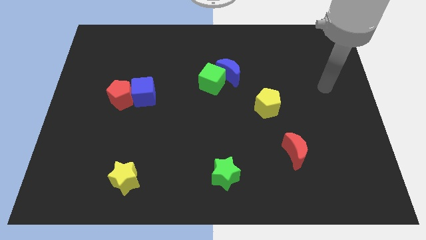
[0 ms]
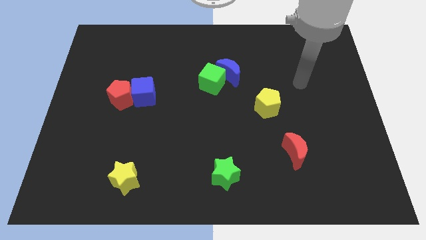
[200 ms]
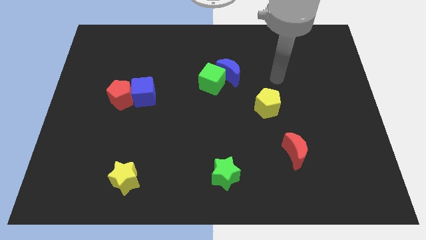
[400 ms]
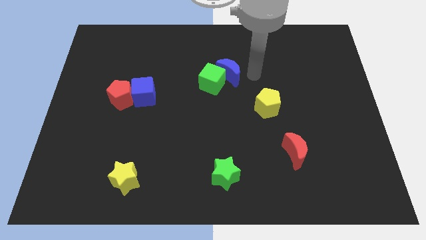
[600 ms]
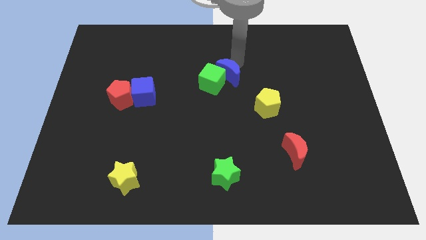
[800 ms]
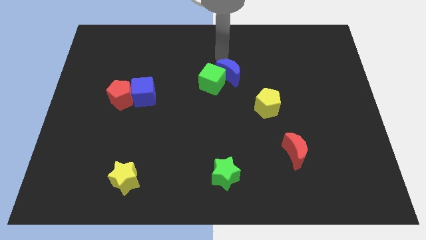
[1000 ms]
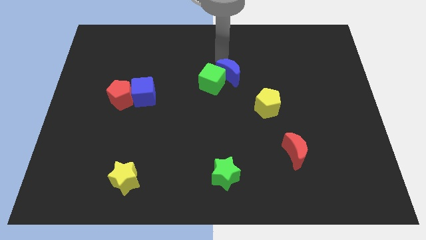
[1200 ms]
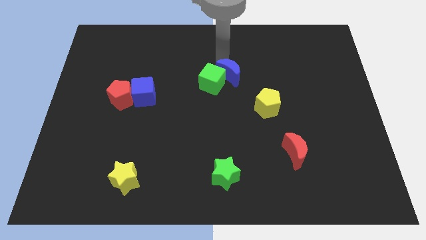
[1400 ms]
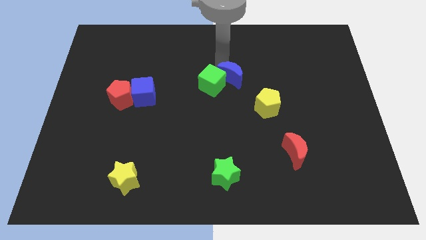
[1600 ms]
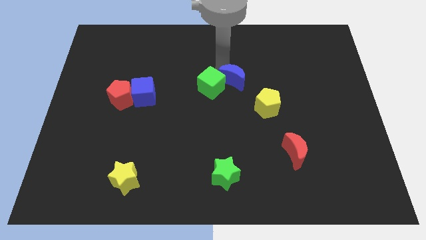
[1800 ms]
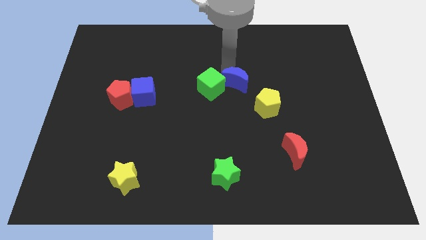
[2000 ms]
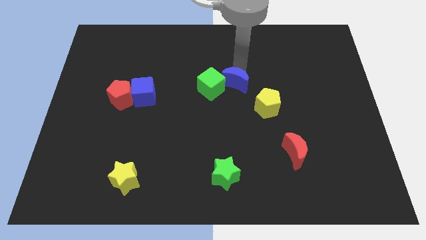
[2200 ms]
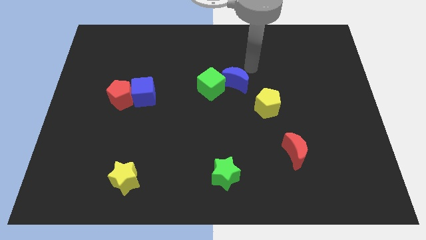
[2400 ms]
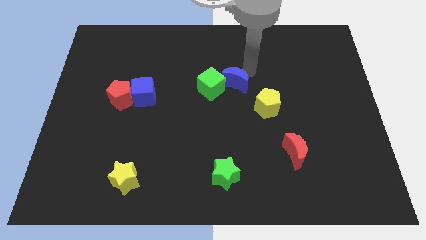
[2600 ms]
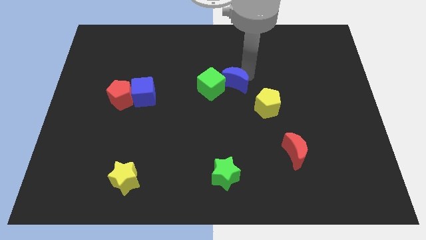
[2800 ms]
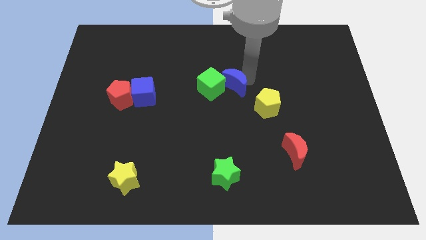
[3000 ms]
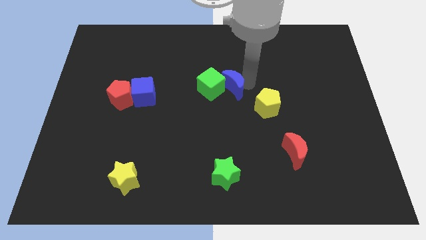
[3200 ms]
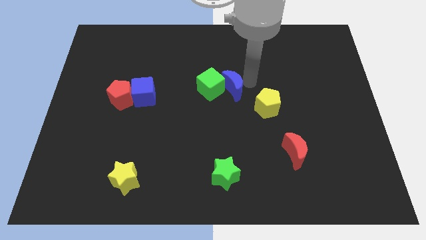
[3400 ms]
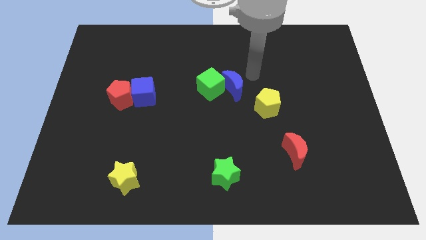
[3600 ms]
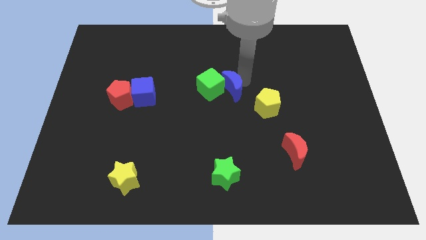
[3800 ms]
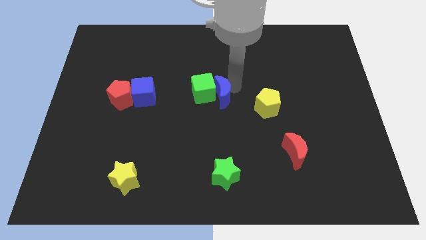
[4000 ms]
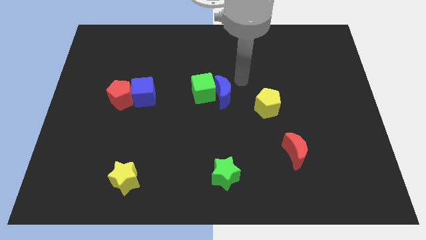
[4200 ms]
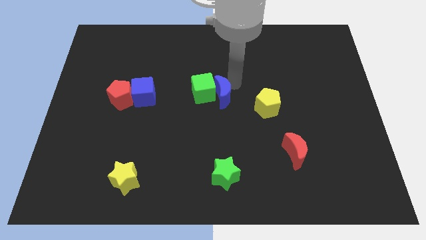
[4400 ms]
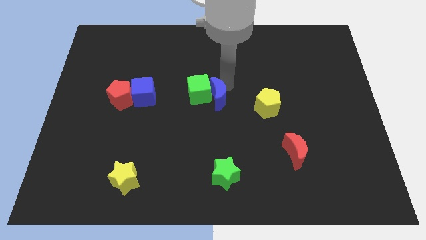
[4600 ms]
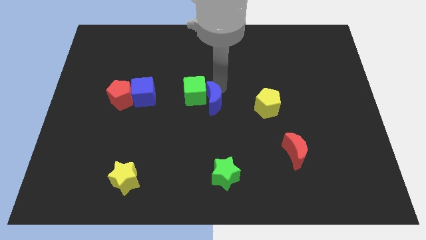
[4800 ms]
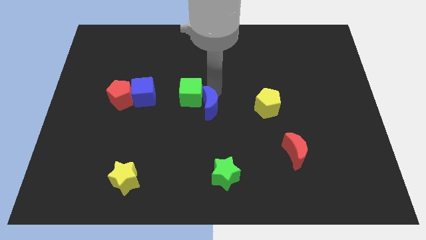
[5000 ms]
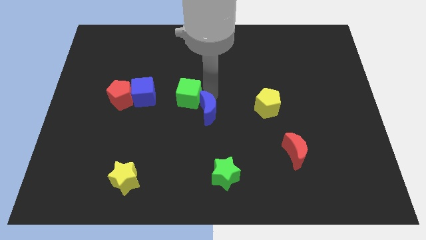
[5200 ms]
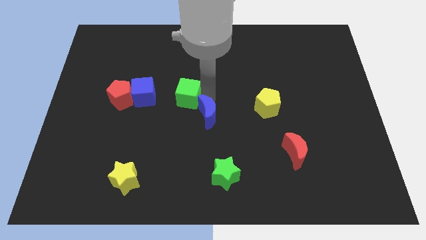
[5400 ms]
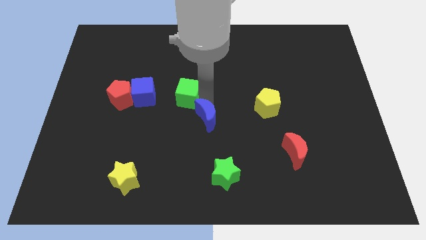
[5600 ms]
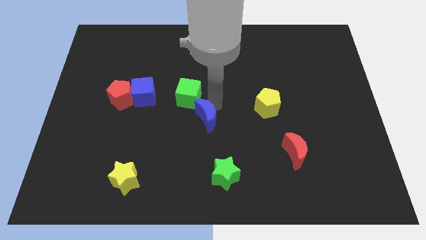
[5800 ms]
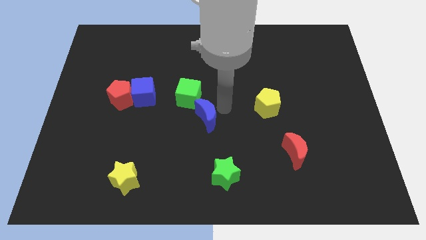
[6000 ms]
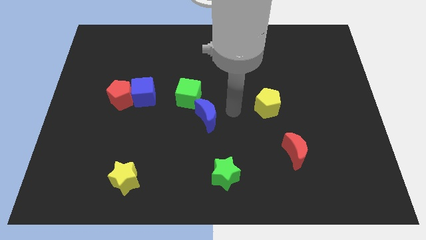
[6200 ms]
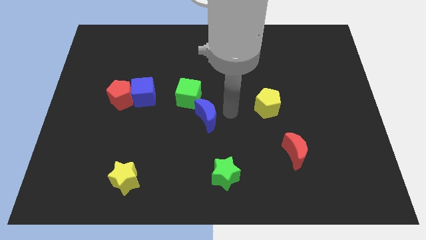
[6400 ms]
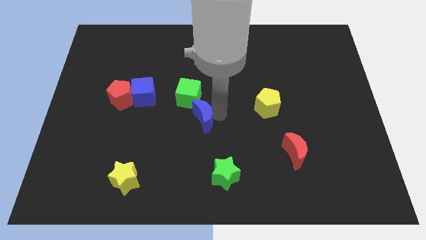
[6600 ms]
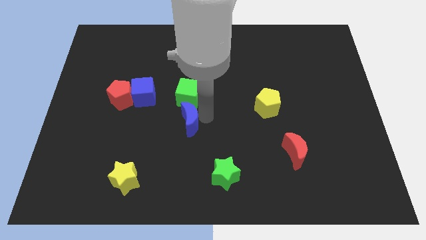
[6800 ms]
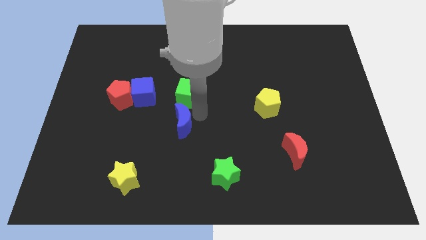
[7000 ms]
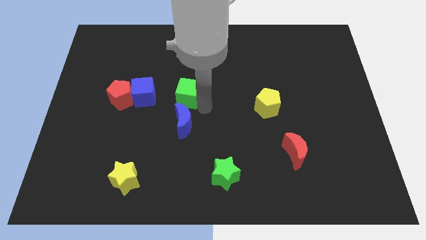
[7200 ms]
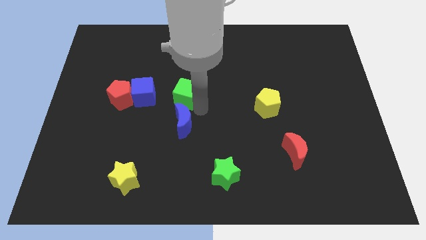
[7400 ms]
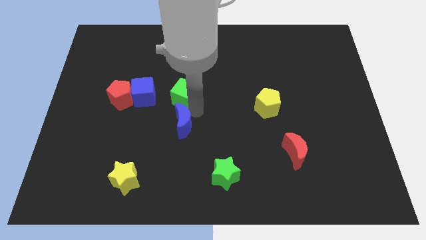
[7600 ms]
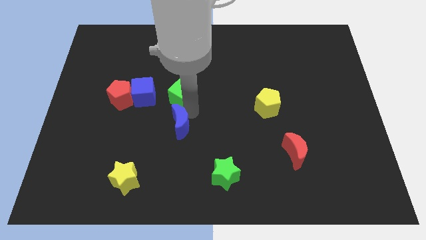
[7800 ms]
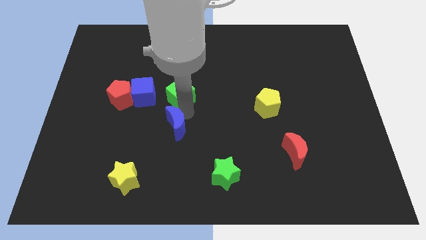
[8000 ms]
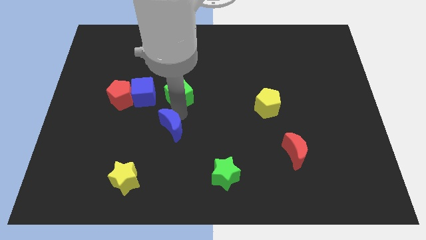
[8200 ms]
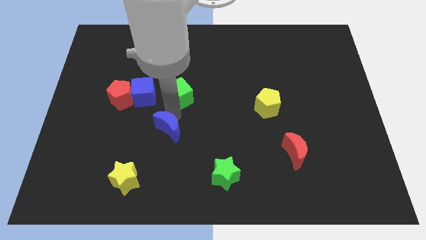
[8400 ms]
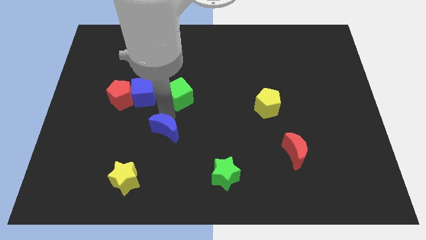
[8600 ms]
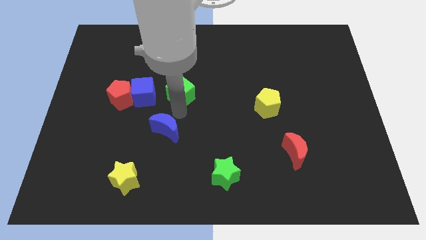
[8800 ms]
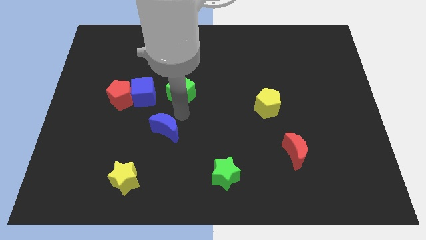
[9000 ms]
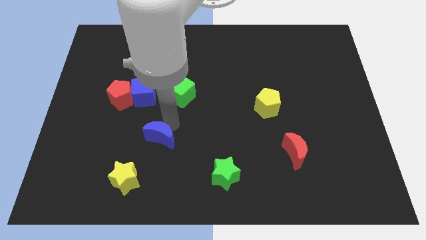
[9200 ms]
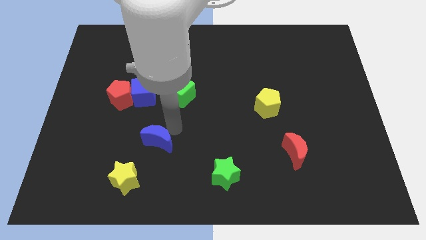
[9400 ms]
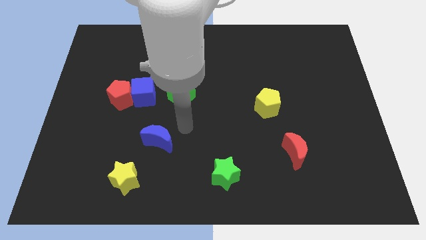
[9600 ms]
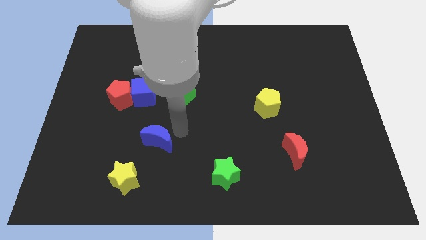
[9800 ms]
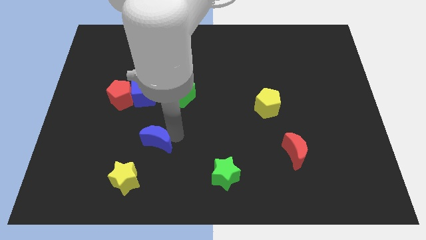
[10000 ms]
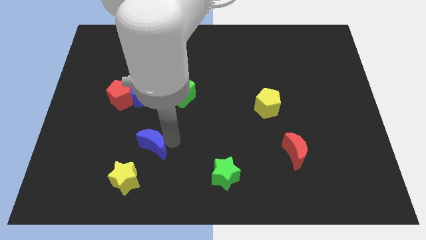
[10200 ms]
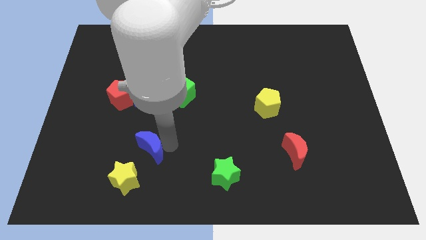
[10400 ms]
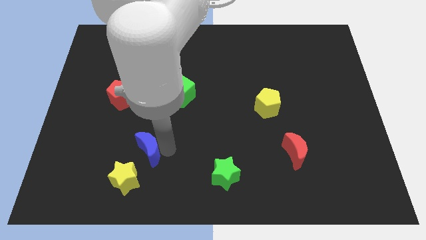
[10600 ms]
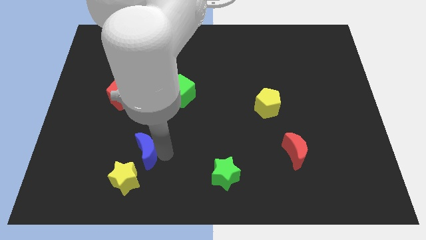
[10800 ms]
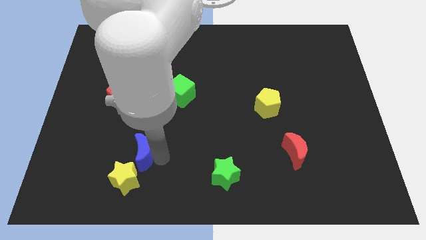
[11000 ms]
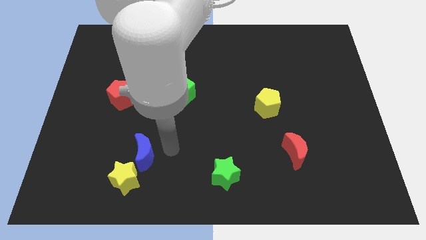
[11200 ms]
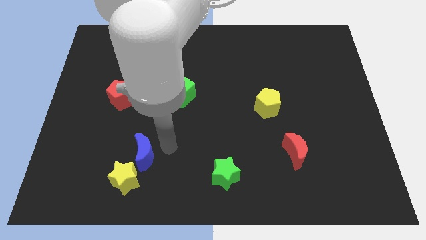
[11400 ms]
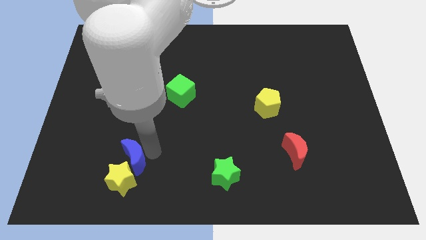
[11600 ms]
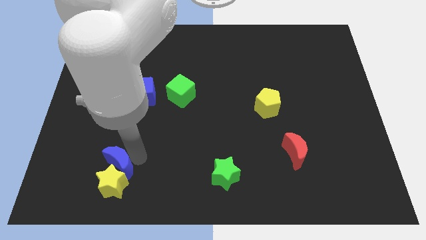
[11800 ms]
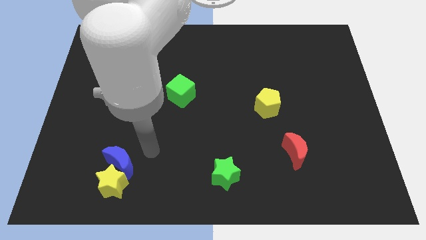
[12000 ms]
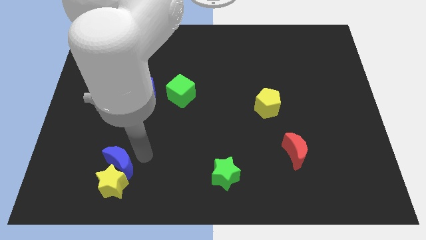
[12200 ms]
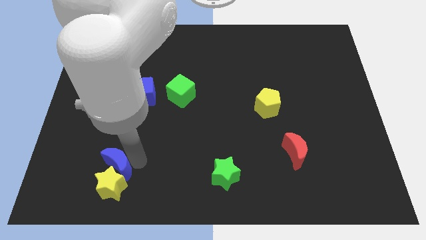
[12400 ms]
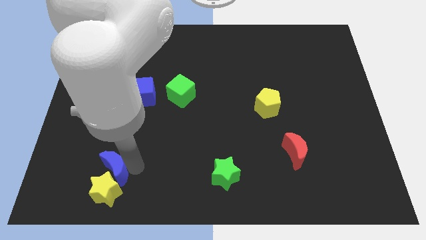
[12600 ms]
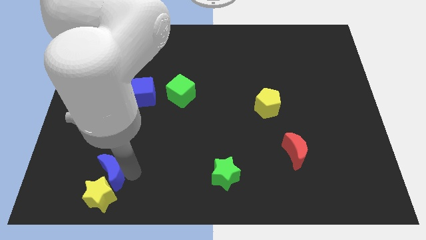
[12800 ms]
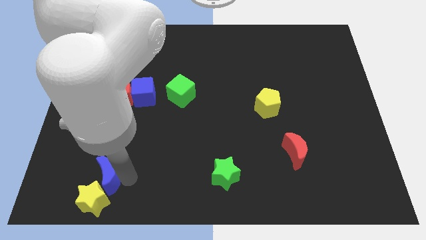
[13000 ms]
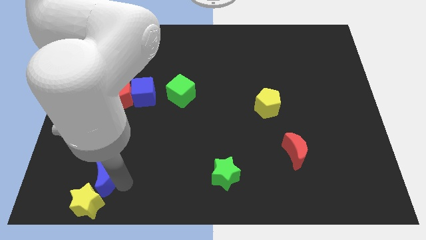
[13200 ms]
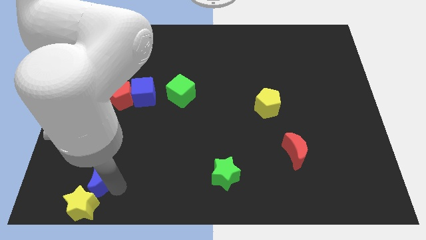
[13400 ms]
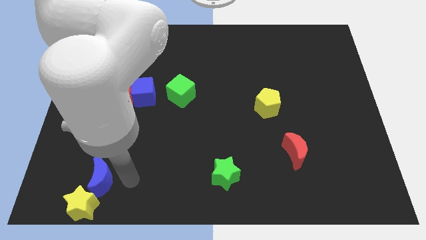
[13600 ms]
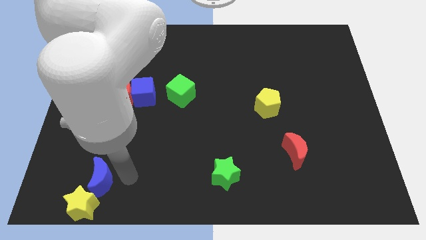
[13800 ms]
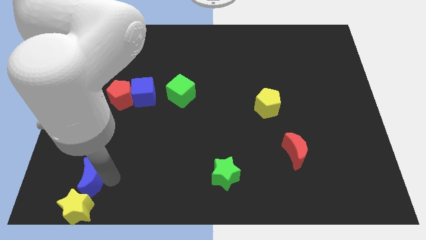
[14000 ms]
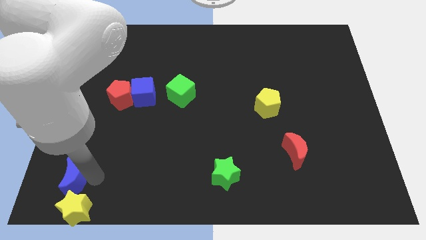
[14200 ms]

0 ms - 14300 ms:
slide the blue moon to the bottom left corner

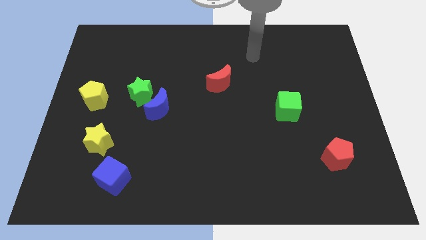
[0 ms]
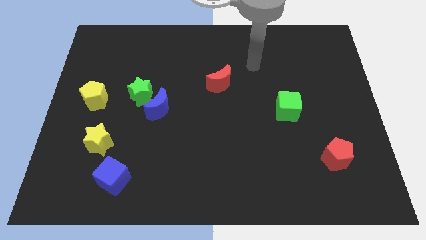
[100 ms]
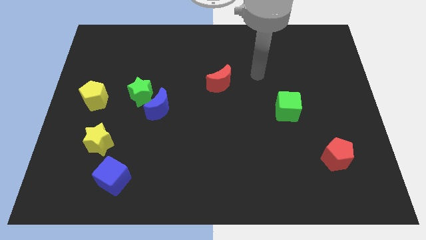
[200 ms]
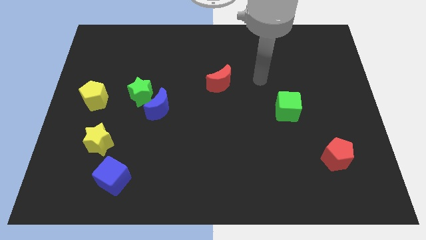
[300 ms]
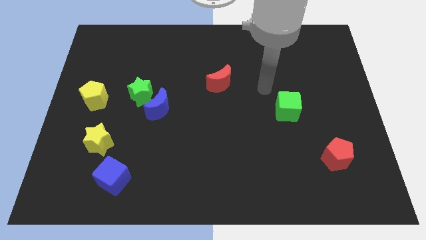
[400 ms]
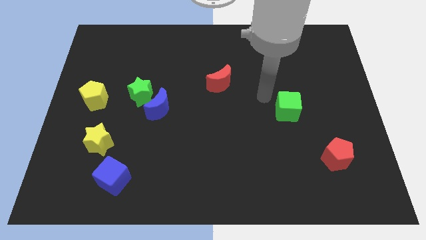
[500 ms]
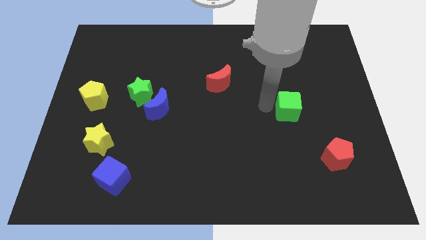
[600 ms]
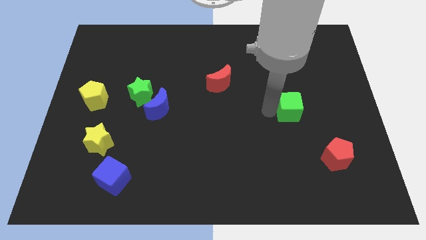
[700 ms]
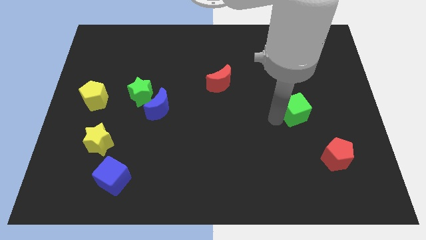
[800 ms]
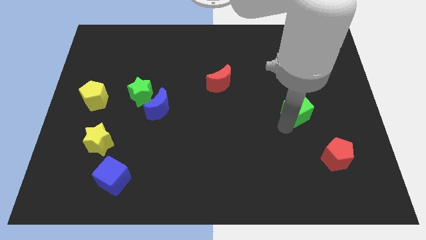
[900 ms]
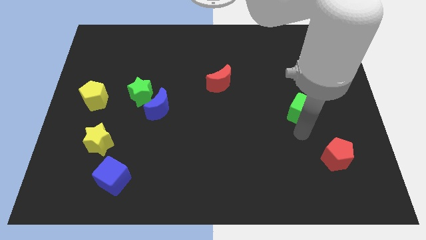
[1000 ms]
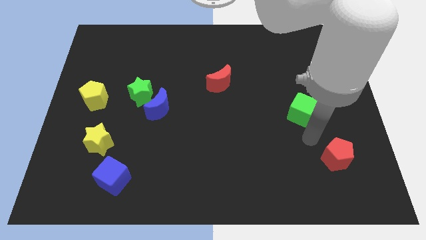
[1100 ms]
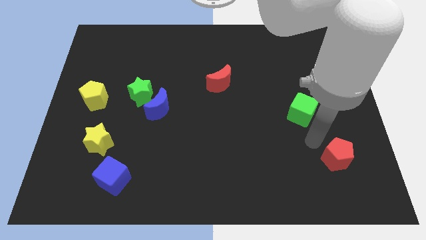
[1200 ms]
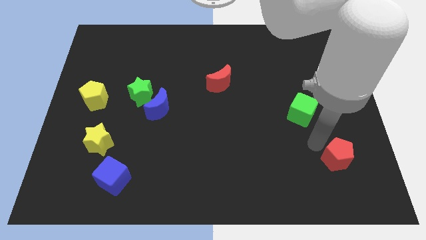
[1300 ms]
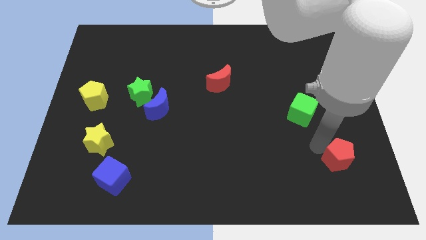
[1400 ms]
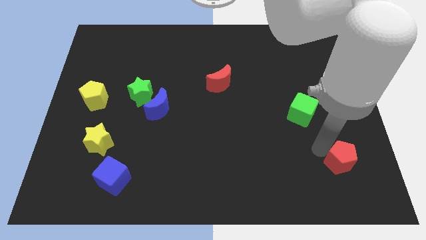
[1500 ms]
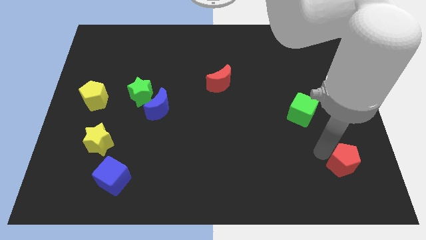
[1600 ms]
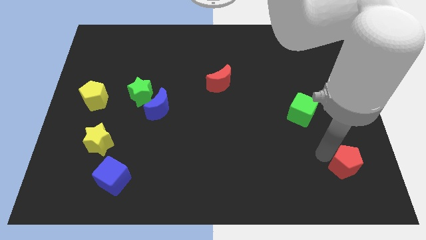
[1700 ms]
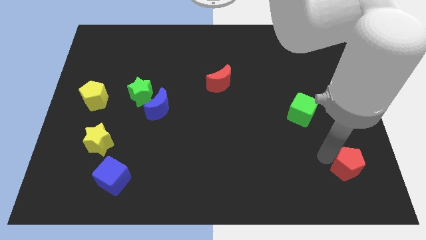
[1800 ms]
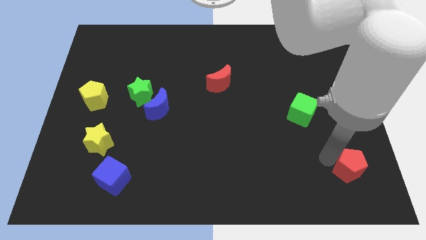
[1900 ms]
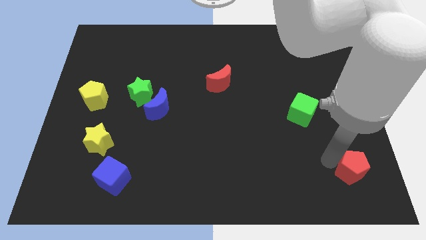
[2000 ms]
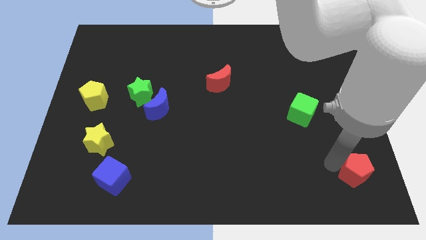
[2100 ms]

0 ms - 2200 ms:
put the red pentagon to the lower right corner
